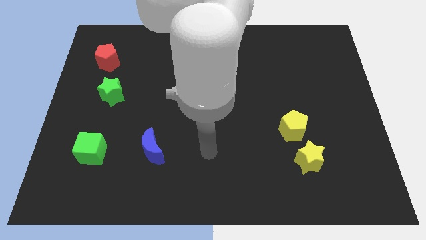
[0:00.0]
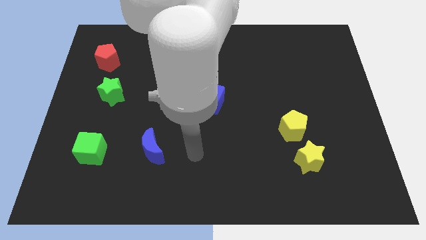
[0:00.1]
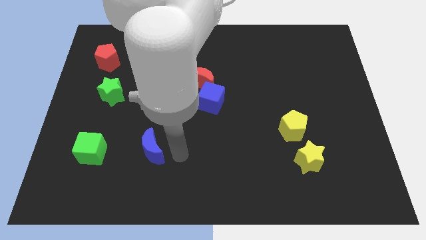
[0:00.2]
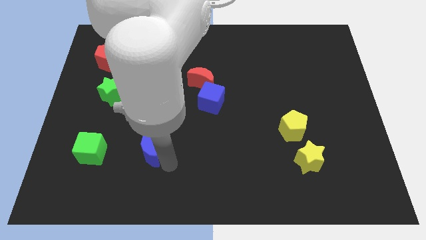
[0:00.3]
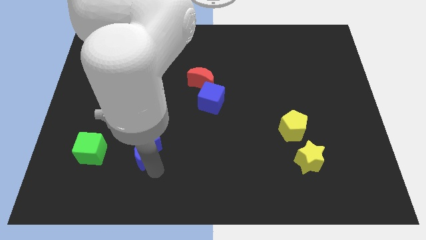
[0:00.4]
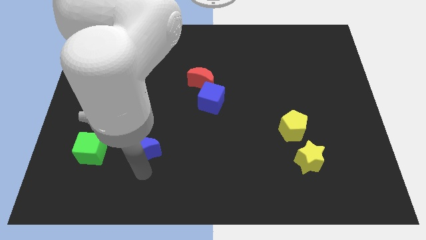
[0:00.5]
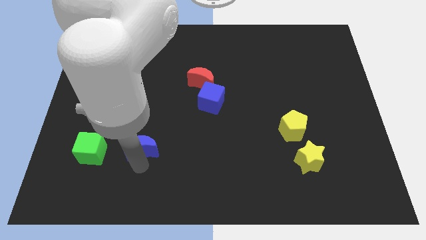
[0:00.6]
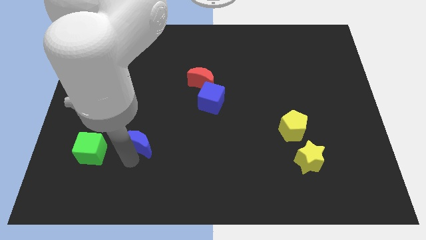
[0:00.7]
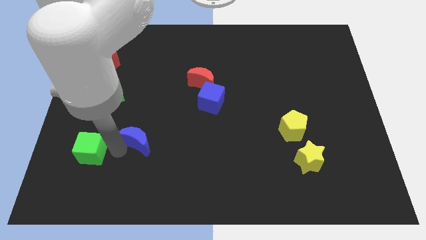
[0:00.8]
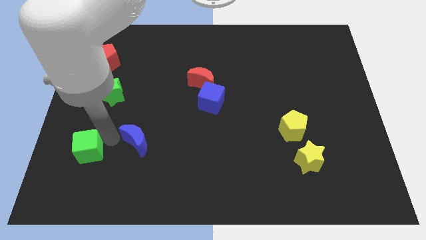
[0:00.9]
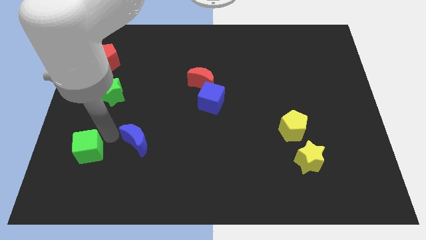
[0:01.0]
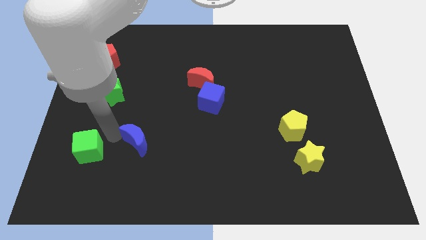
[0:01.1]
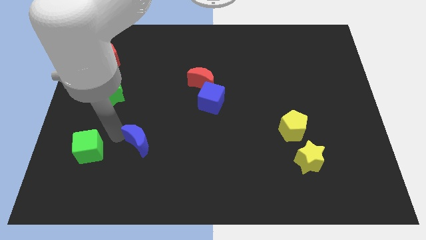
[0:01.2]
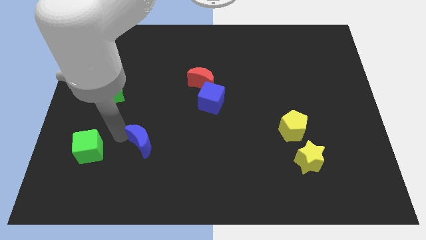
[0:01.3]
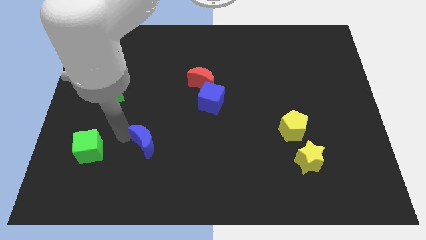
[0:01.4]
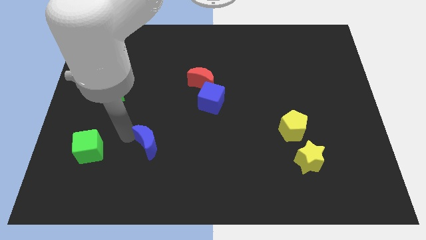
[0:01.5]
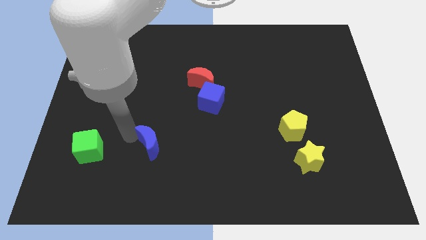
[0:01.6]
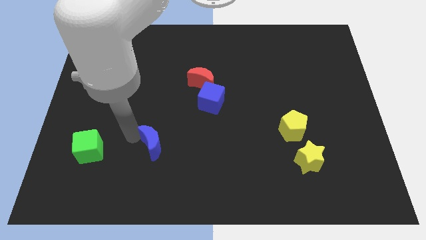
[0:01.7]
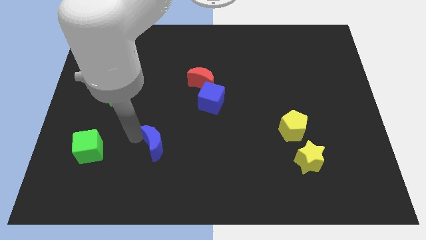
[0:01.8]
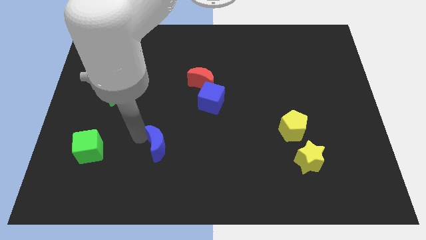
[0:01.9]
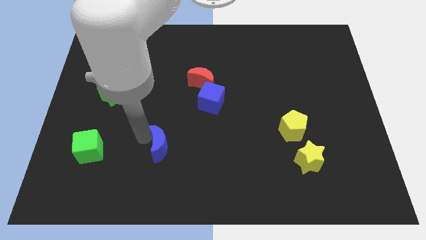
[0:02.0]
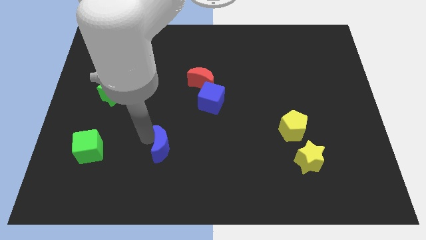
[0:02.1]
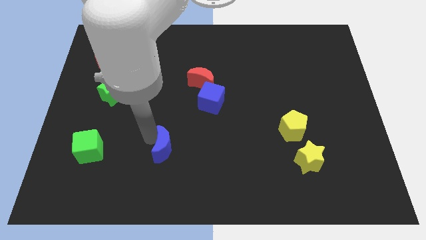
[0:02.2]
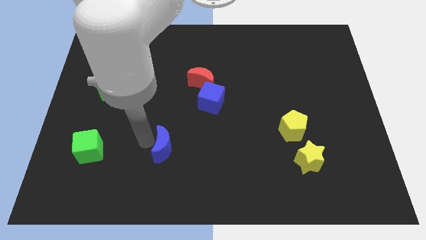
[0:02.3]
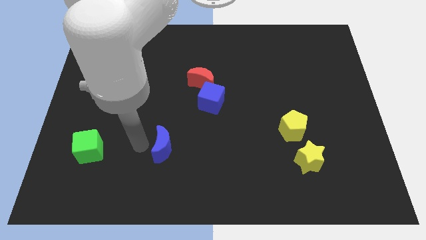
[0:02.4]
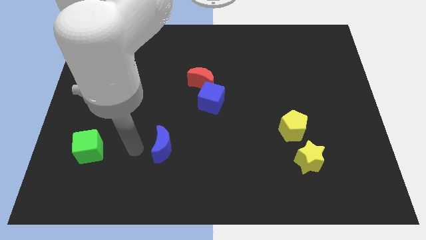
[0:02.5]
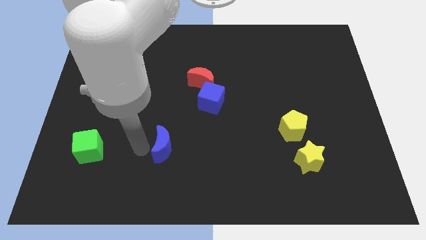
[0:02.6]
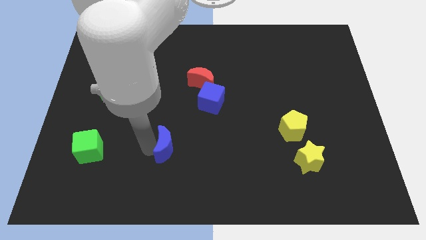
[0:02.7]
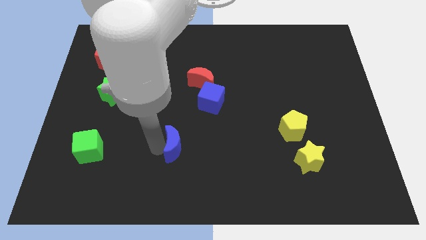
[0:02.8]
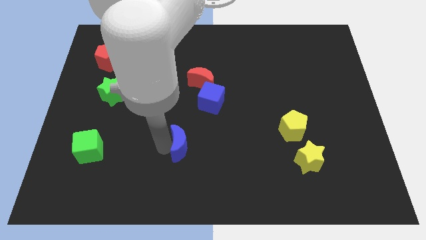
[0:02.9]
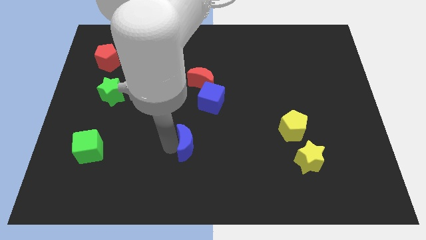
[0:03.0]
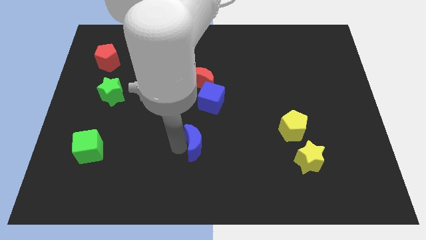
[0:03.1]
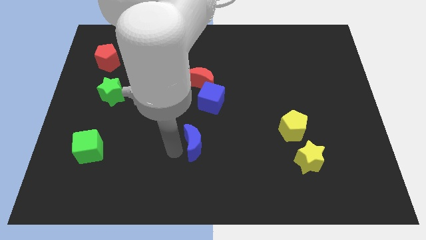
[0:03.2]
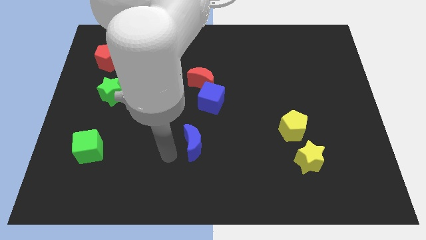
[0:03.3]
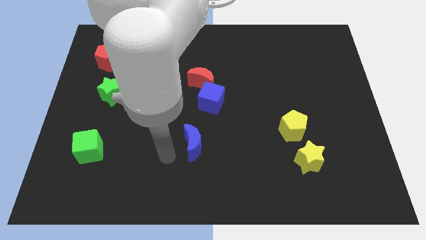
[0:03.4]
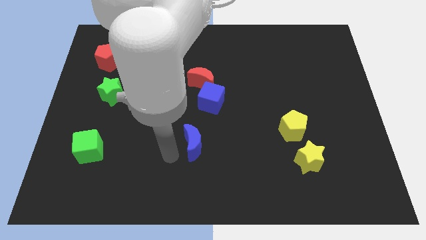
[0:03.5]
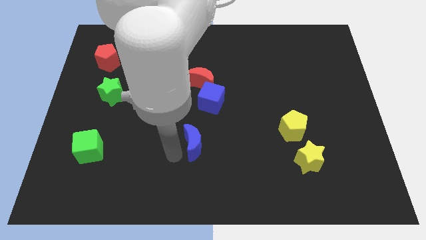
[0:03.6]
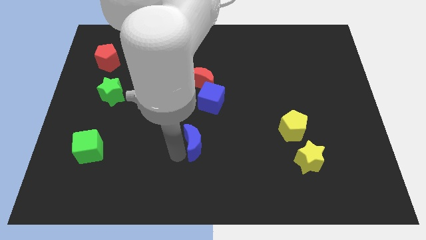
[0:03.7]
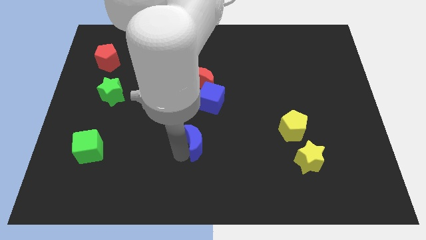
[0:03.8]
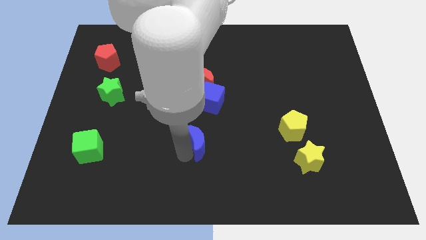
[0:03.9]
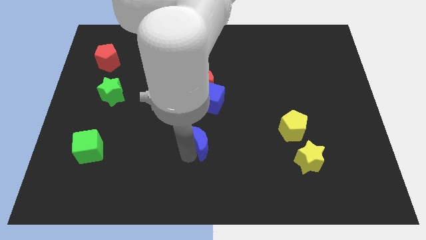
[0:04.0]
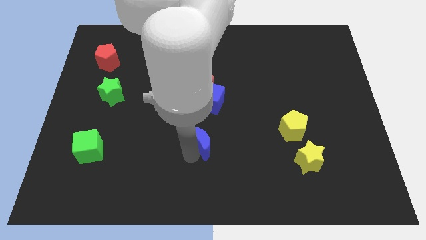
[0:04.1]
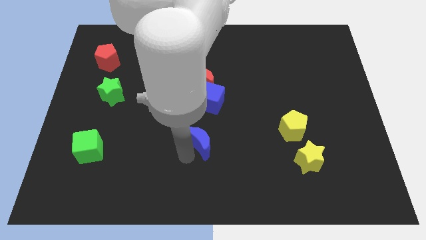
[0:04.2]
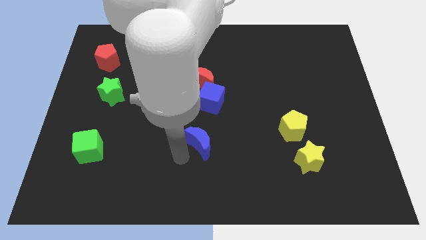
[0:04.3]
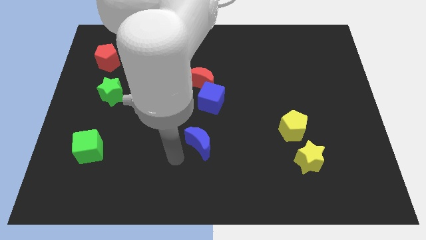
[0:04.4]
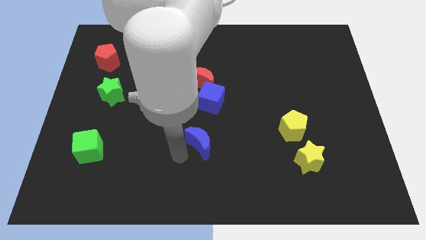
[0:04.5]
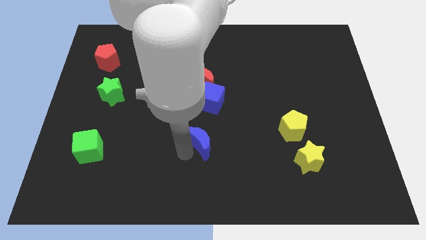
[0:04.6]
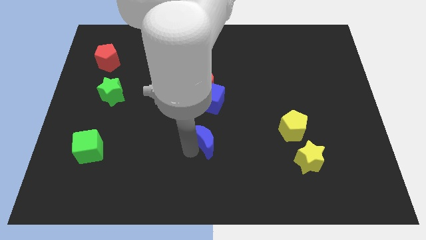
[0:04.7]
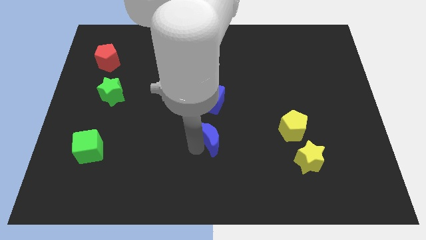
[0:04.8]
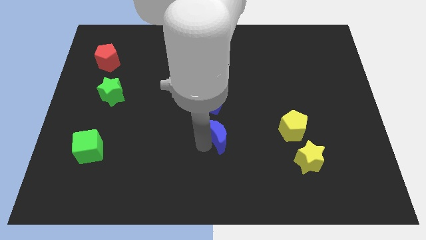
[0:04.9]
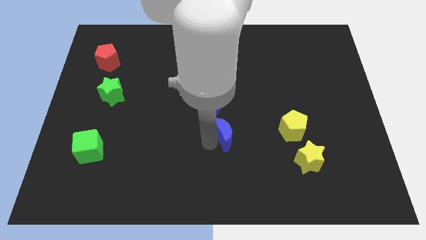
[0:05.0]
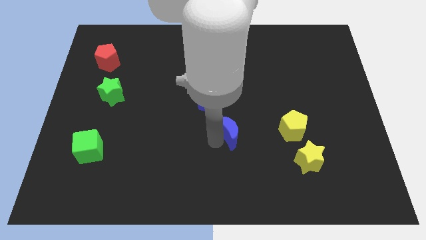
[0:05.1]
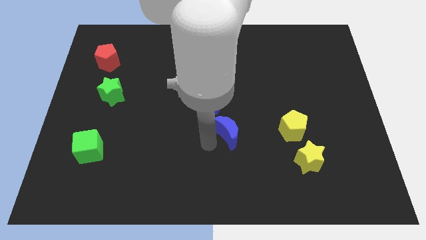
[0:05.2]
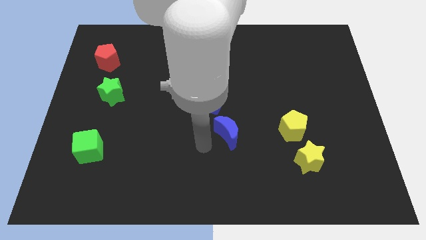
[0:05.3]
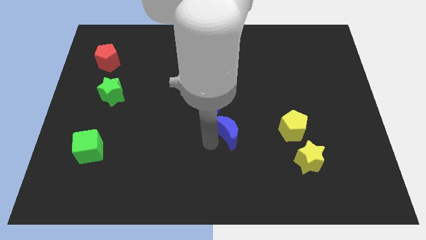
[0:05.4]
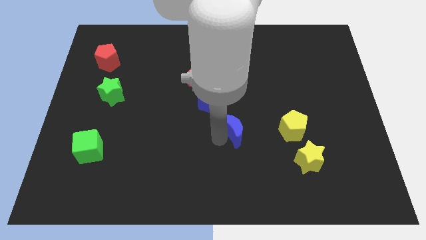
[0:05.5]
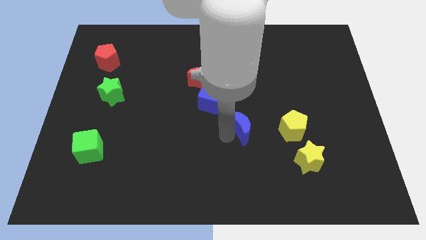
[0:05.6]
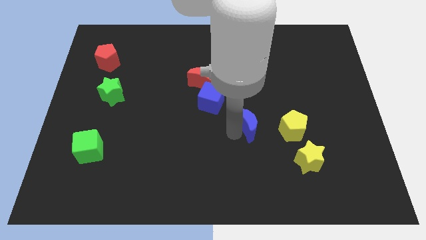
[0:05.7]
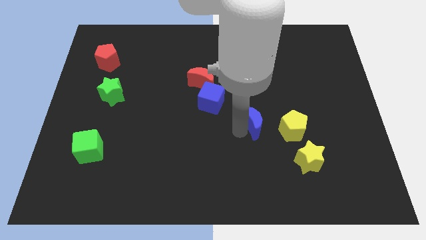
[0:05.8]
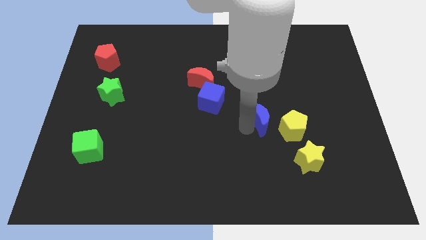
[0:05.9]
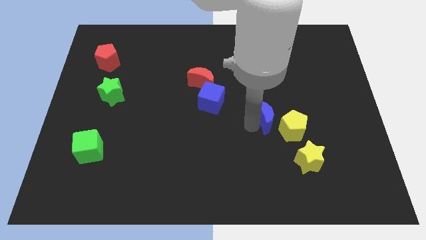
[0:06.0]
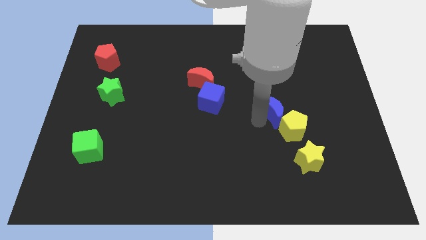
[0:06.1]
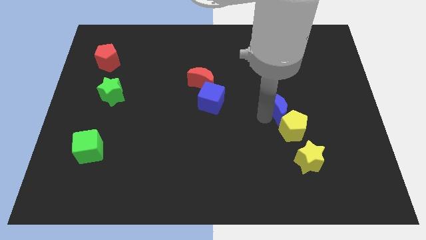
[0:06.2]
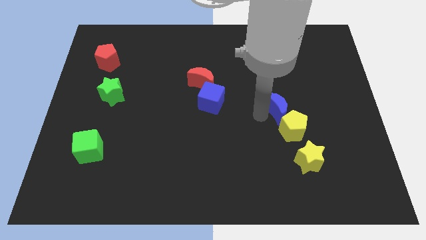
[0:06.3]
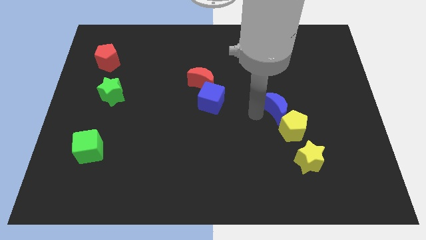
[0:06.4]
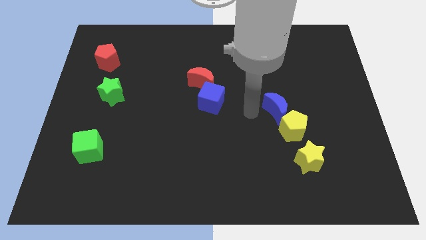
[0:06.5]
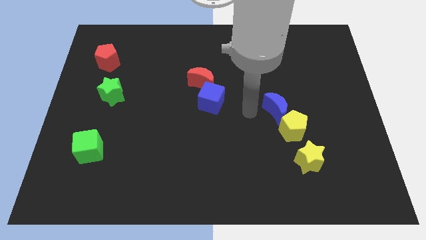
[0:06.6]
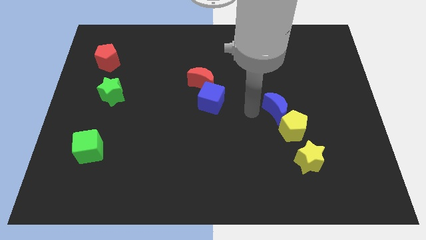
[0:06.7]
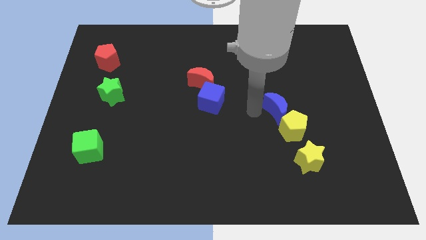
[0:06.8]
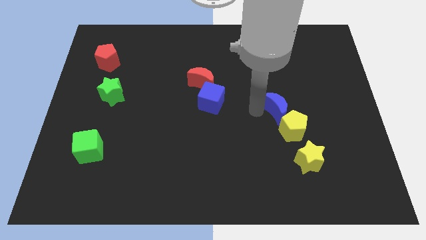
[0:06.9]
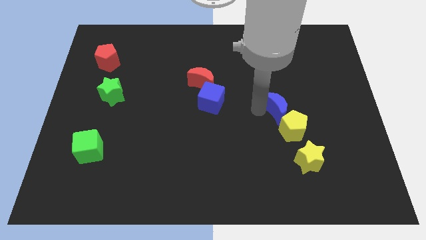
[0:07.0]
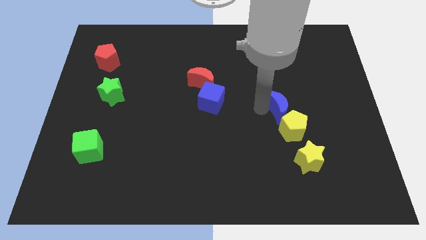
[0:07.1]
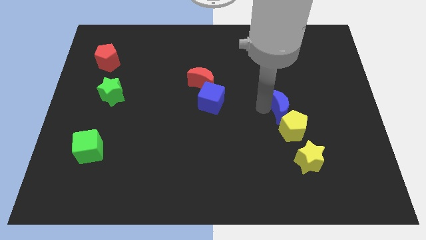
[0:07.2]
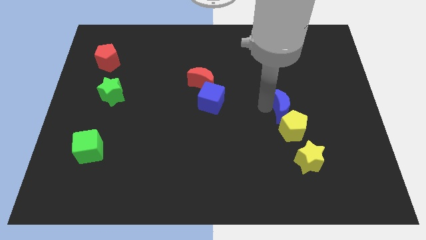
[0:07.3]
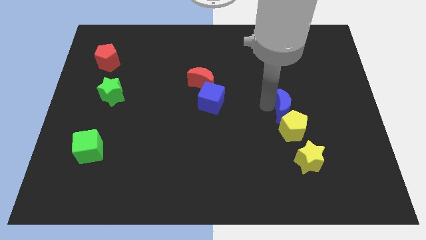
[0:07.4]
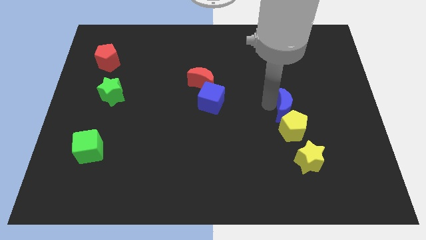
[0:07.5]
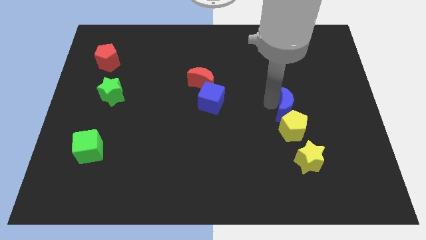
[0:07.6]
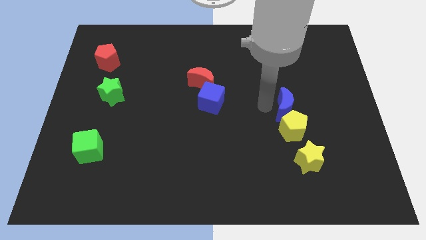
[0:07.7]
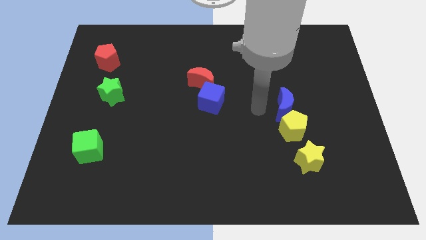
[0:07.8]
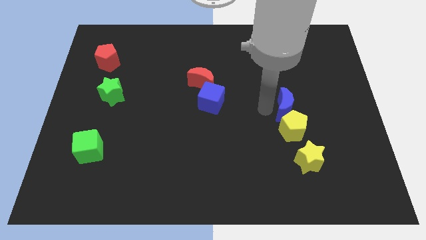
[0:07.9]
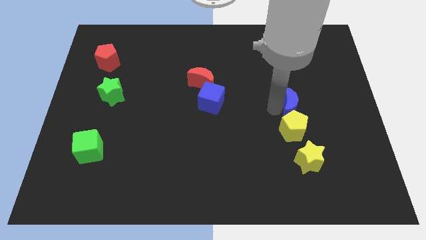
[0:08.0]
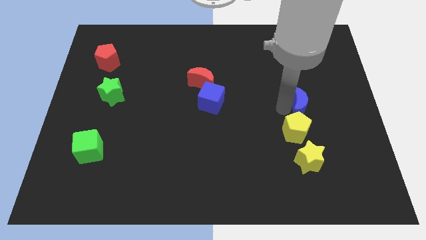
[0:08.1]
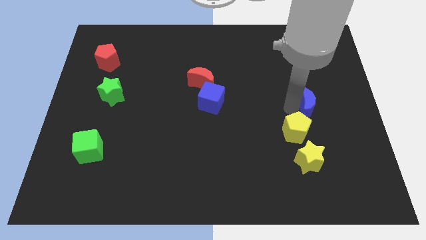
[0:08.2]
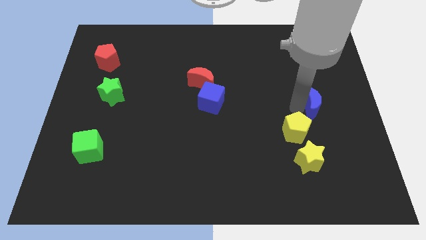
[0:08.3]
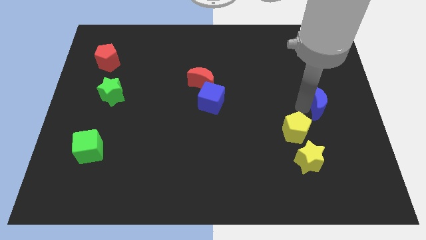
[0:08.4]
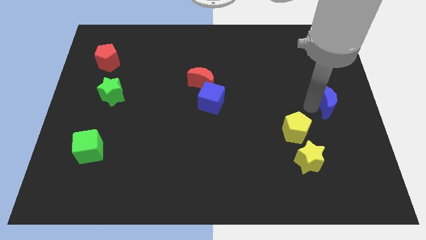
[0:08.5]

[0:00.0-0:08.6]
put the blue moon to the right side
